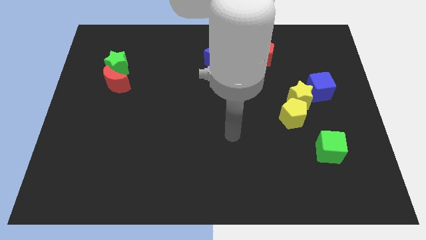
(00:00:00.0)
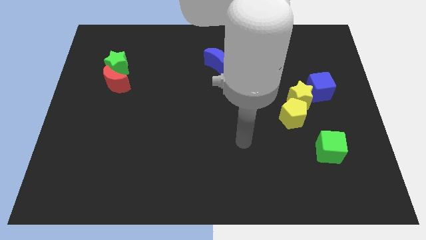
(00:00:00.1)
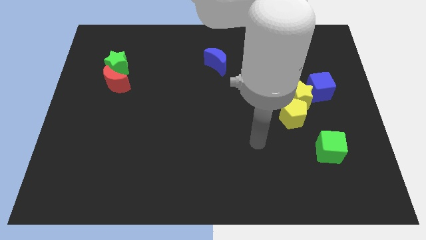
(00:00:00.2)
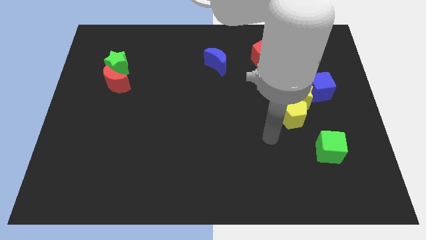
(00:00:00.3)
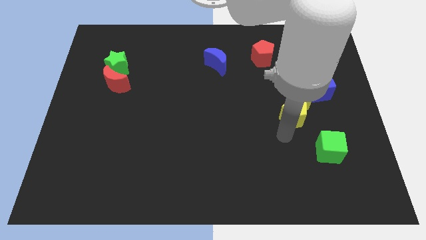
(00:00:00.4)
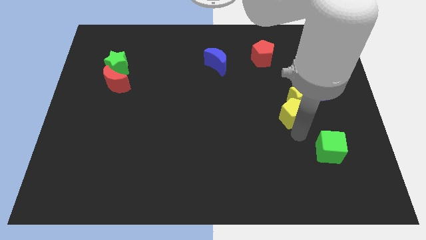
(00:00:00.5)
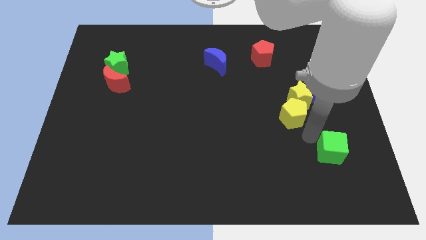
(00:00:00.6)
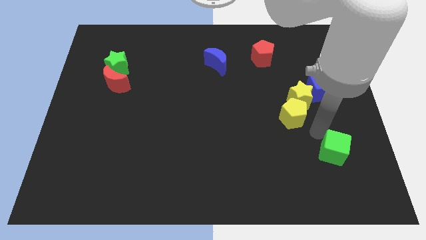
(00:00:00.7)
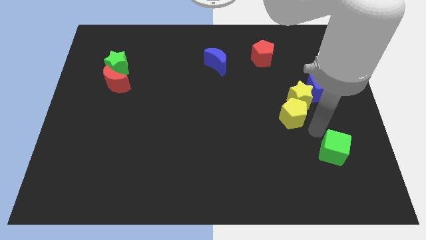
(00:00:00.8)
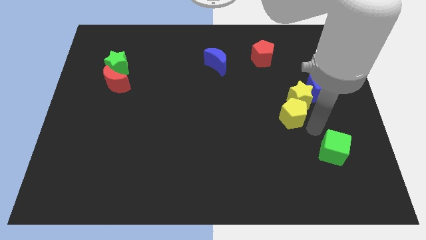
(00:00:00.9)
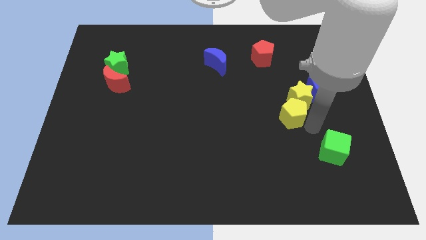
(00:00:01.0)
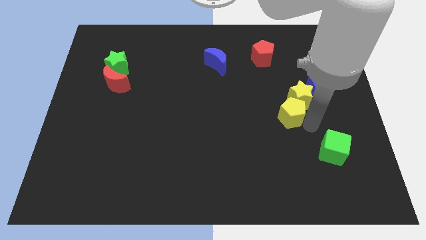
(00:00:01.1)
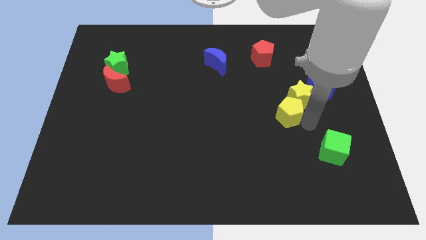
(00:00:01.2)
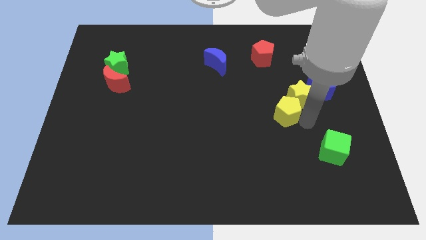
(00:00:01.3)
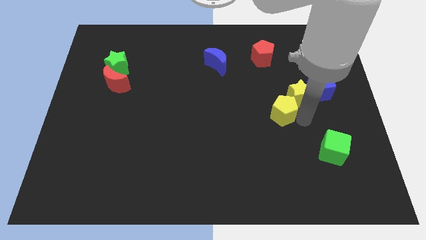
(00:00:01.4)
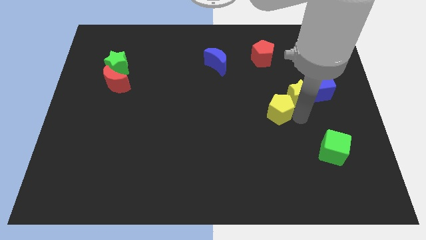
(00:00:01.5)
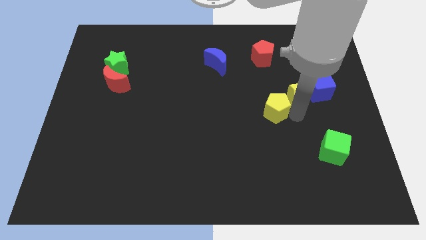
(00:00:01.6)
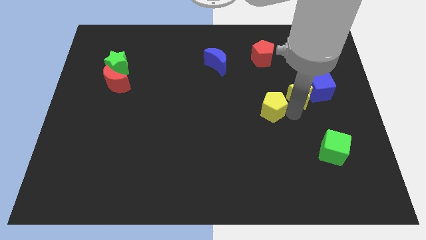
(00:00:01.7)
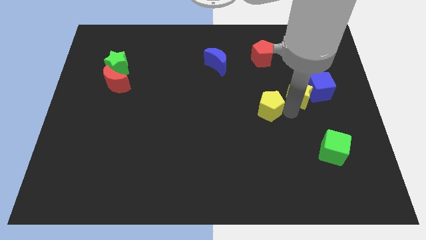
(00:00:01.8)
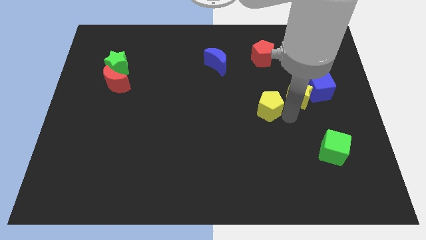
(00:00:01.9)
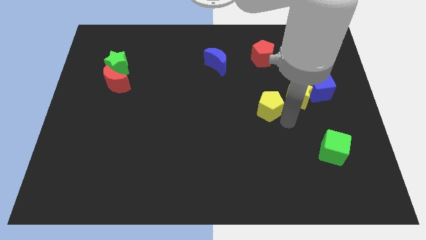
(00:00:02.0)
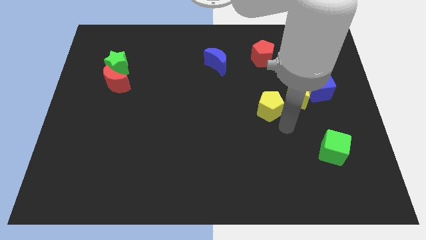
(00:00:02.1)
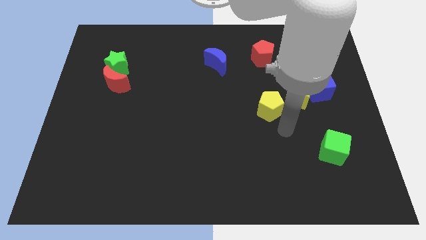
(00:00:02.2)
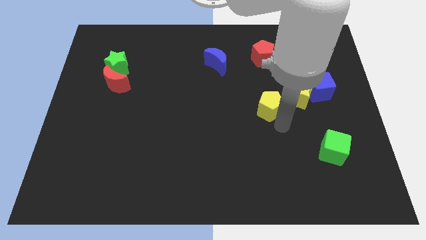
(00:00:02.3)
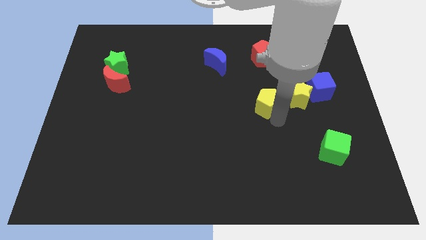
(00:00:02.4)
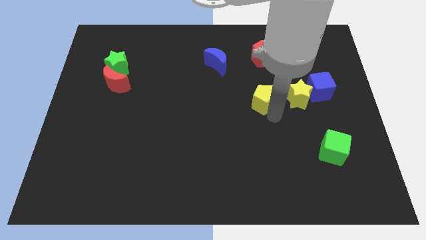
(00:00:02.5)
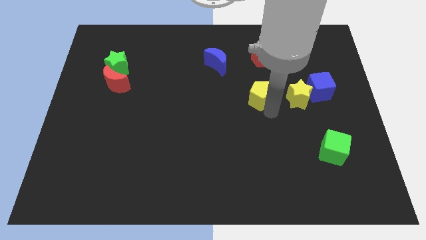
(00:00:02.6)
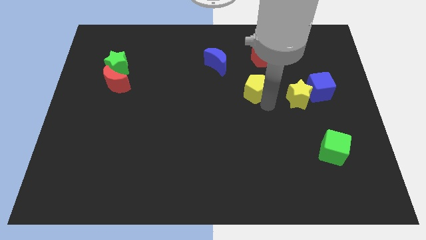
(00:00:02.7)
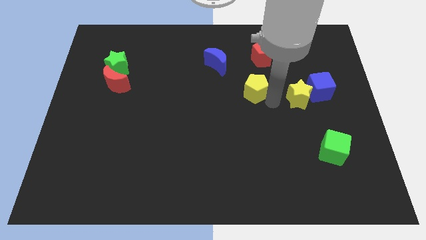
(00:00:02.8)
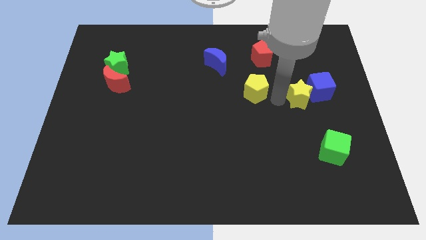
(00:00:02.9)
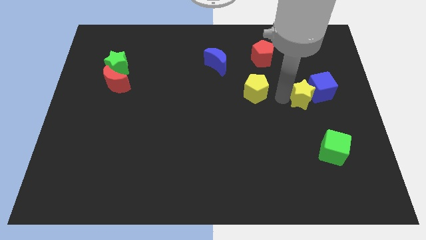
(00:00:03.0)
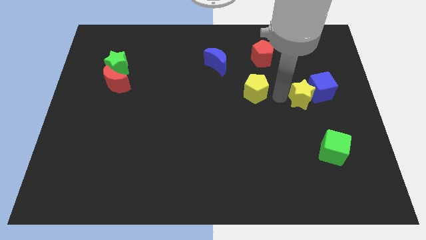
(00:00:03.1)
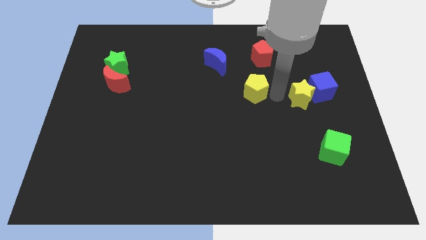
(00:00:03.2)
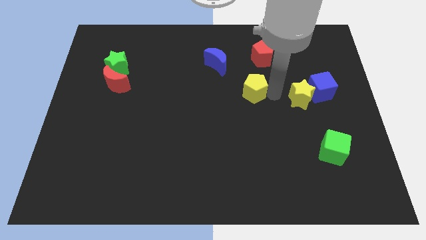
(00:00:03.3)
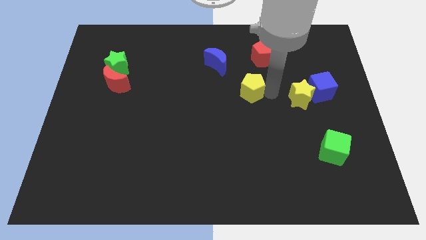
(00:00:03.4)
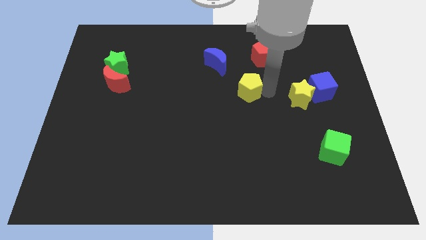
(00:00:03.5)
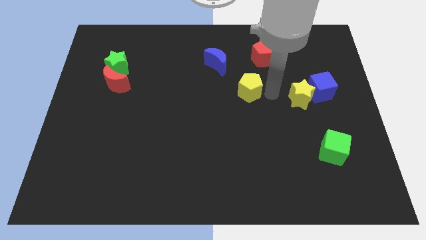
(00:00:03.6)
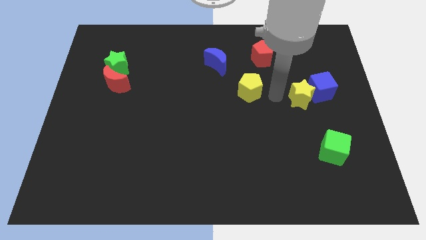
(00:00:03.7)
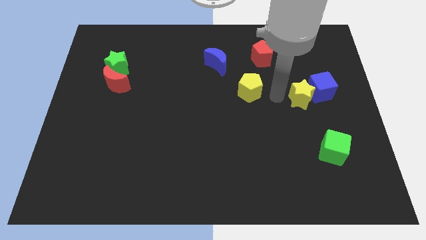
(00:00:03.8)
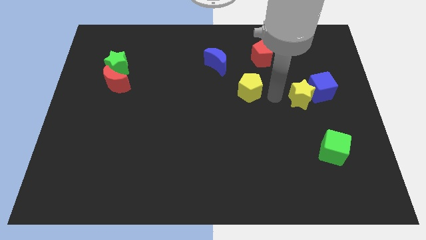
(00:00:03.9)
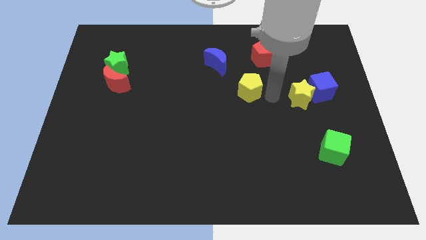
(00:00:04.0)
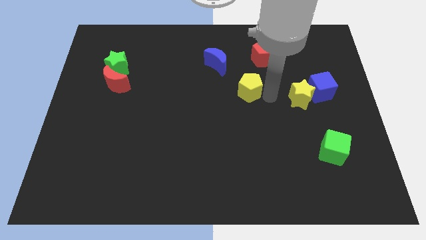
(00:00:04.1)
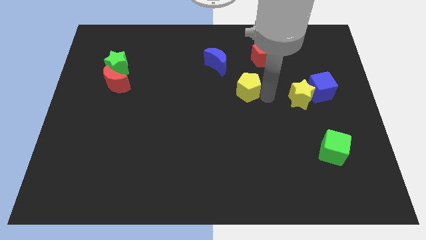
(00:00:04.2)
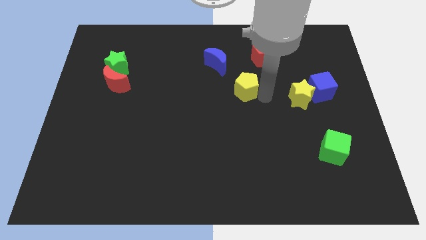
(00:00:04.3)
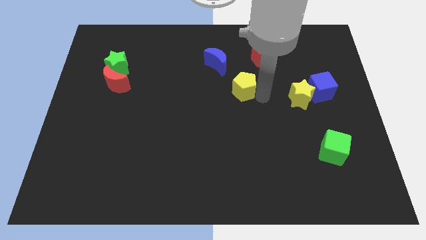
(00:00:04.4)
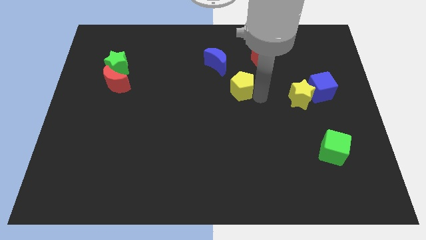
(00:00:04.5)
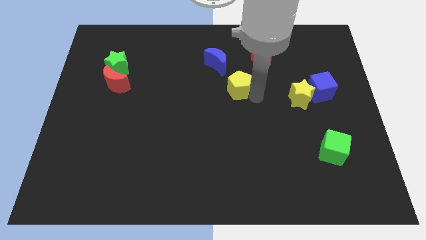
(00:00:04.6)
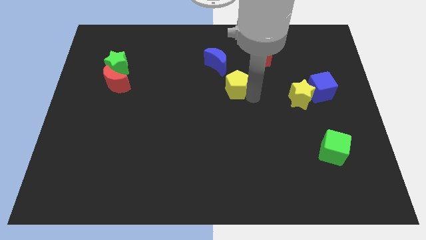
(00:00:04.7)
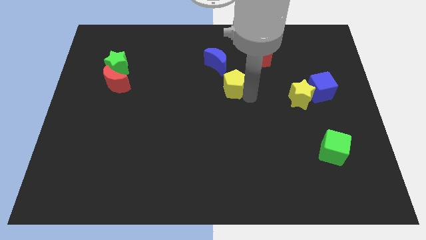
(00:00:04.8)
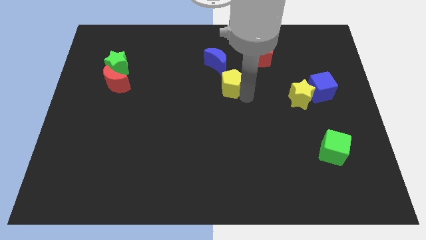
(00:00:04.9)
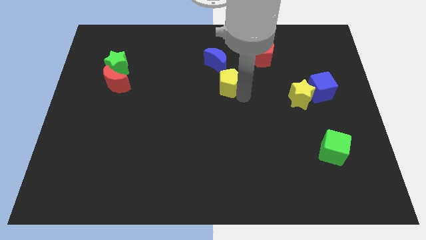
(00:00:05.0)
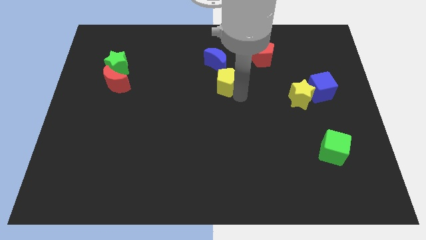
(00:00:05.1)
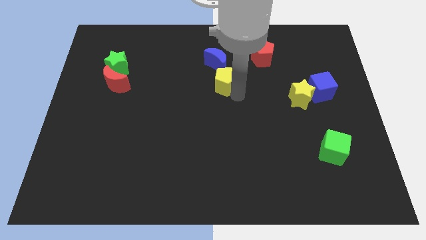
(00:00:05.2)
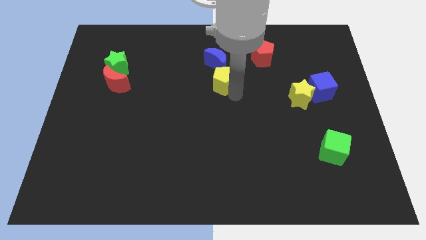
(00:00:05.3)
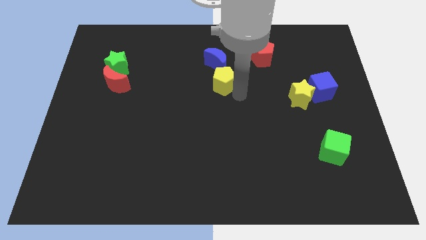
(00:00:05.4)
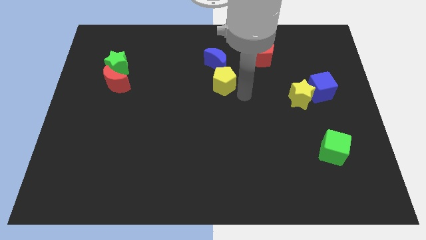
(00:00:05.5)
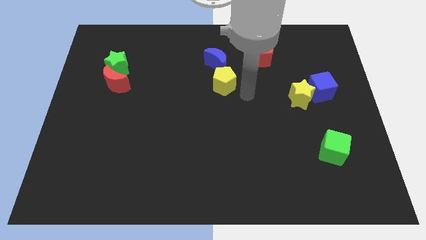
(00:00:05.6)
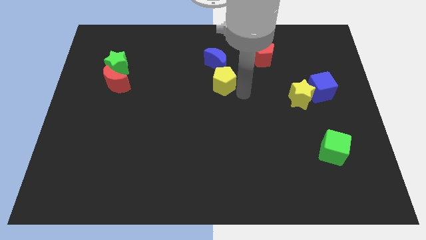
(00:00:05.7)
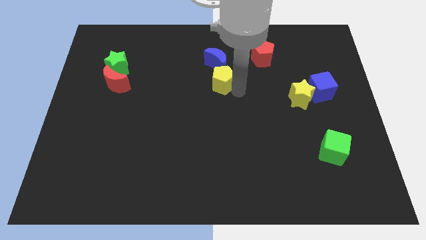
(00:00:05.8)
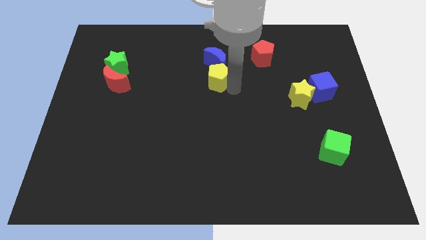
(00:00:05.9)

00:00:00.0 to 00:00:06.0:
push the yellow pentagon to the bottom left side of the blue moon

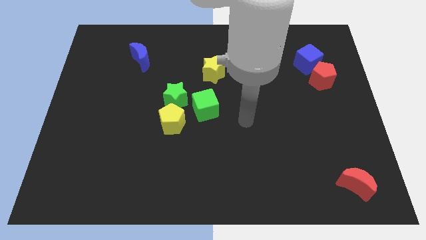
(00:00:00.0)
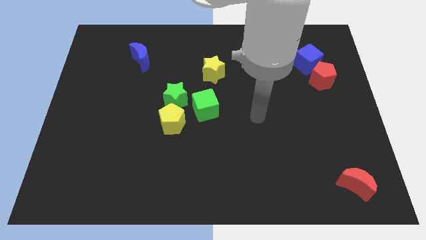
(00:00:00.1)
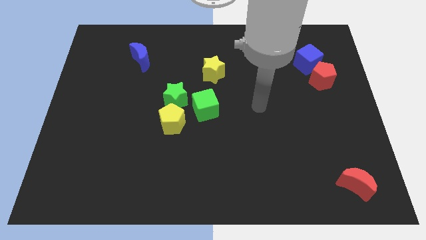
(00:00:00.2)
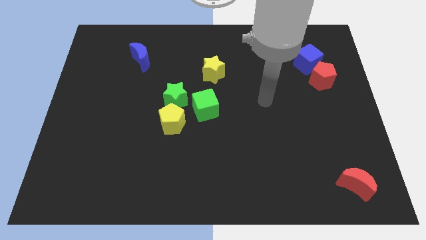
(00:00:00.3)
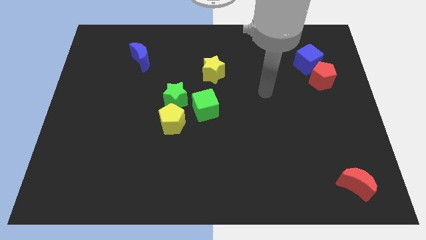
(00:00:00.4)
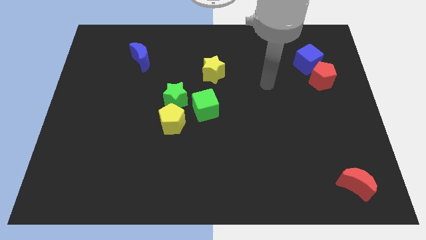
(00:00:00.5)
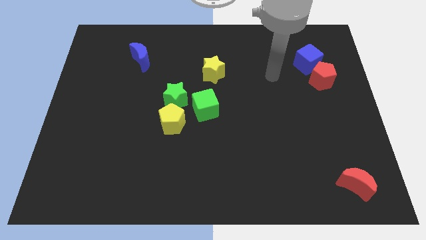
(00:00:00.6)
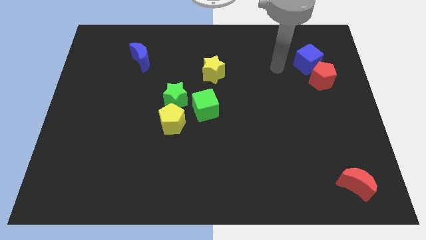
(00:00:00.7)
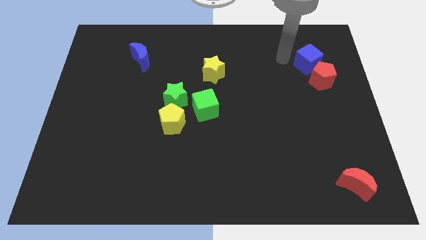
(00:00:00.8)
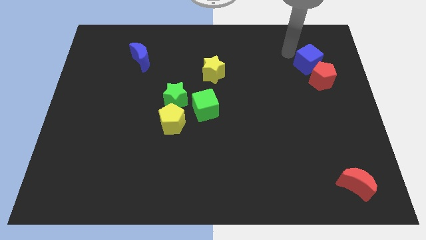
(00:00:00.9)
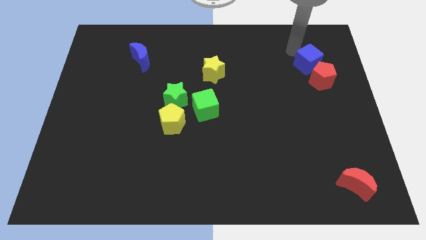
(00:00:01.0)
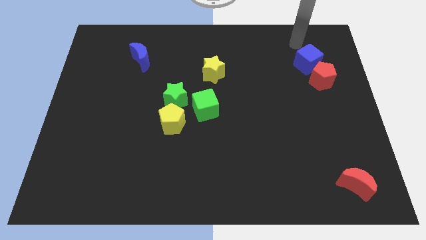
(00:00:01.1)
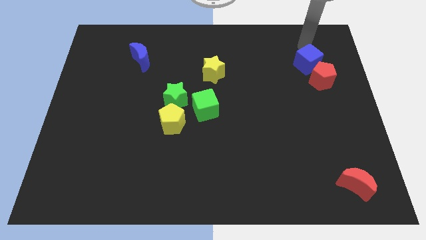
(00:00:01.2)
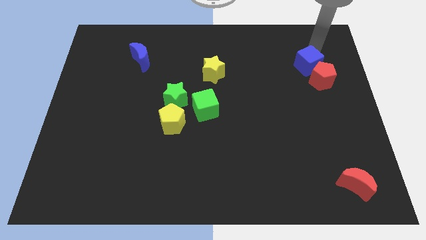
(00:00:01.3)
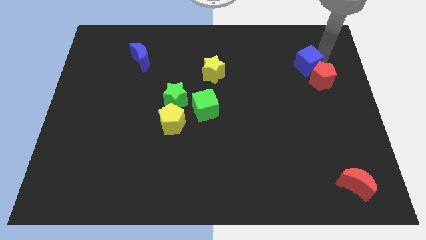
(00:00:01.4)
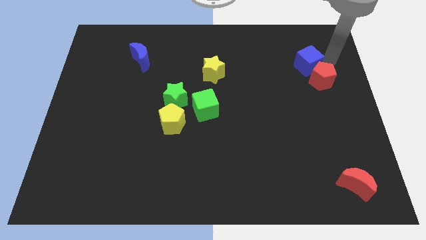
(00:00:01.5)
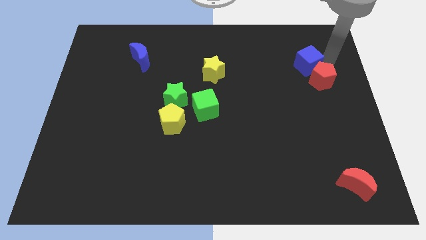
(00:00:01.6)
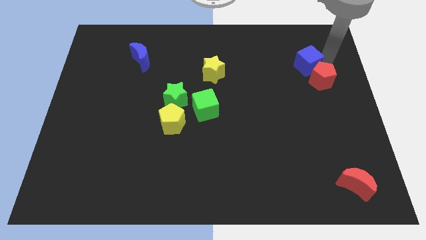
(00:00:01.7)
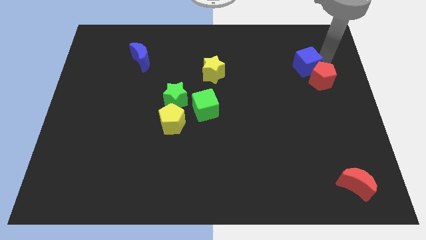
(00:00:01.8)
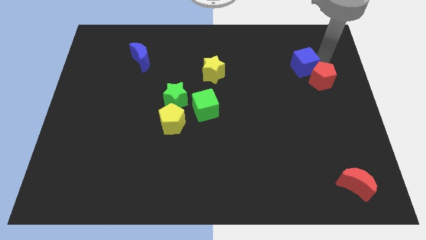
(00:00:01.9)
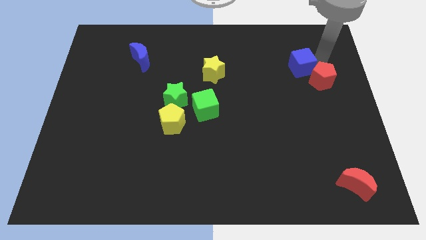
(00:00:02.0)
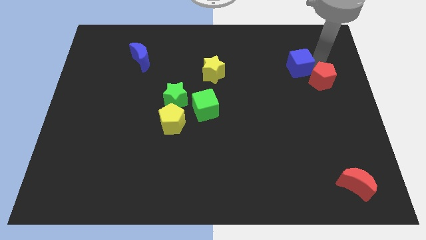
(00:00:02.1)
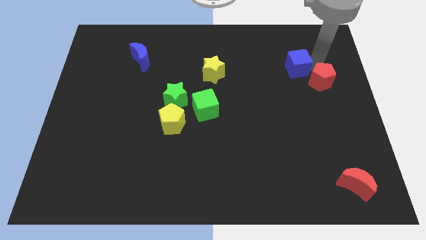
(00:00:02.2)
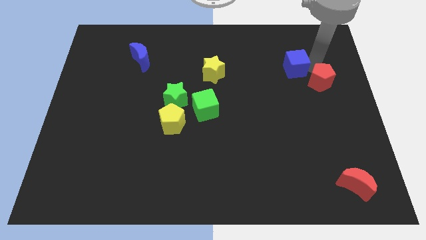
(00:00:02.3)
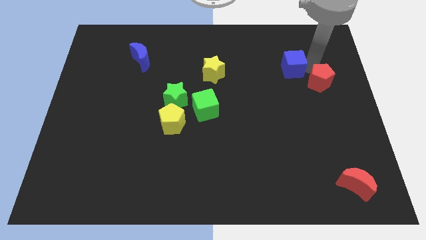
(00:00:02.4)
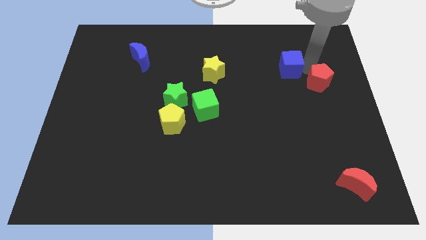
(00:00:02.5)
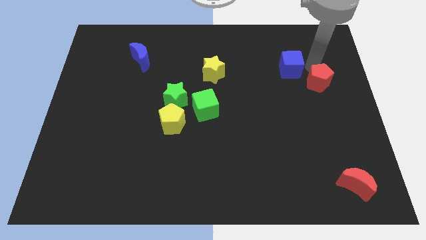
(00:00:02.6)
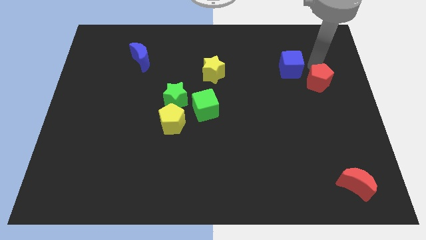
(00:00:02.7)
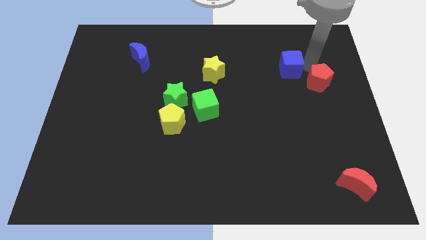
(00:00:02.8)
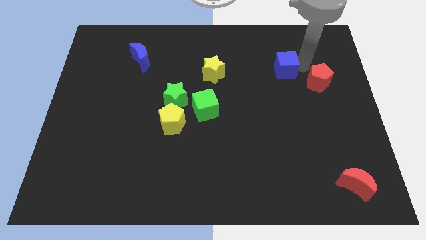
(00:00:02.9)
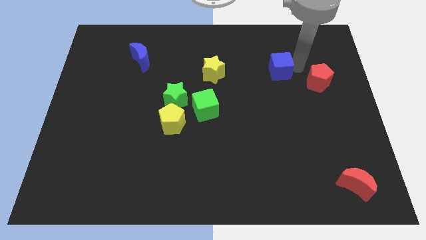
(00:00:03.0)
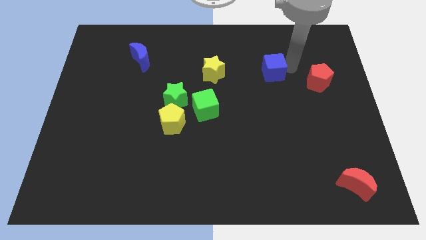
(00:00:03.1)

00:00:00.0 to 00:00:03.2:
push the blue cube right of the yellow star
